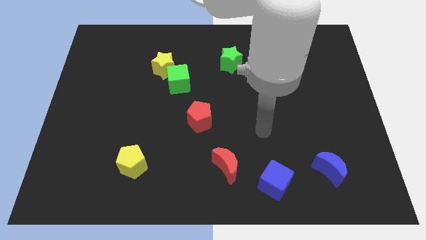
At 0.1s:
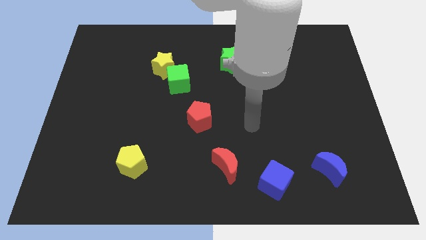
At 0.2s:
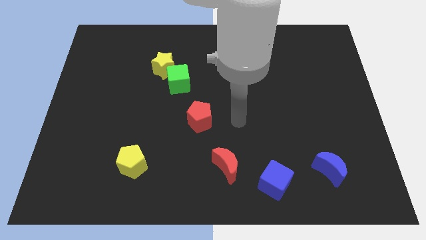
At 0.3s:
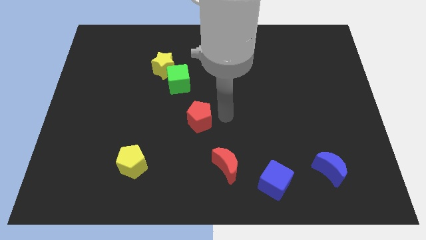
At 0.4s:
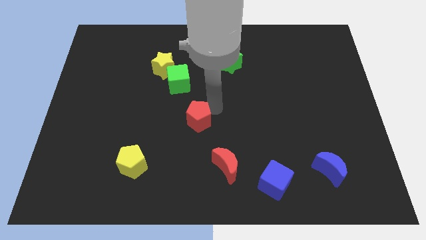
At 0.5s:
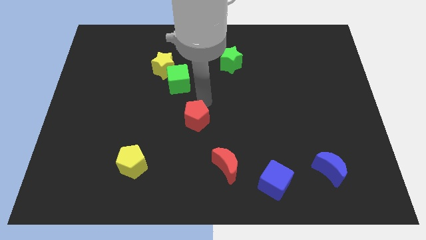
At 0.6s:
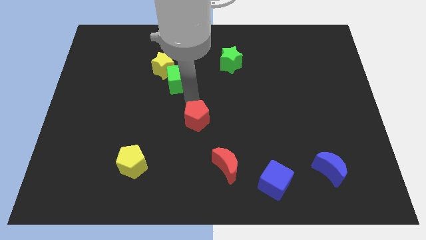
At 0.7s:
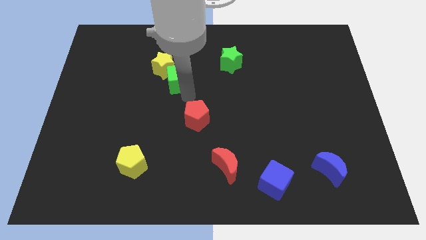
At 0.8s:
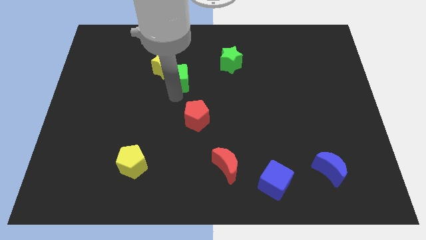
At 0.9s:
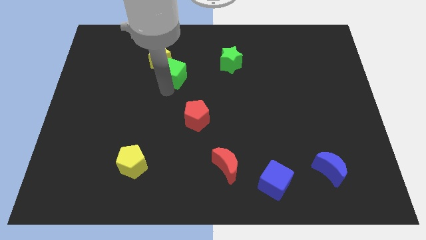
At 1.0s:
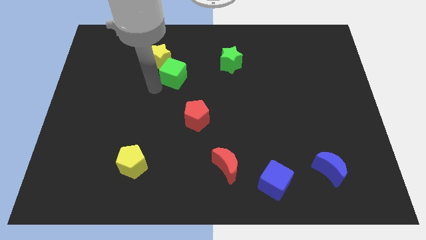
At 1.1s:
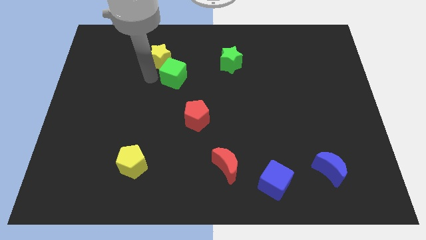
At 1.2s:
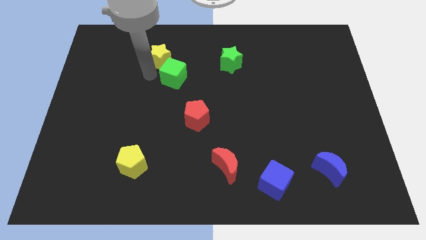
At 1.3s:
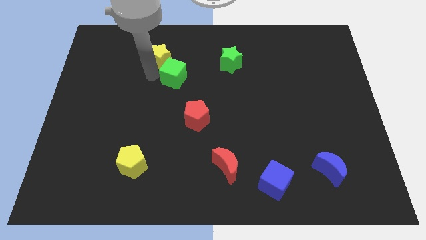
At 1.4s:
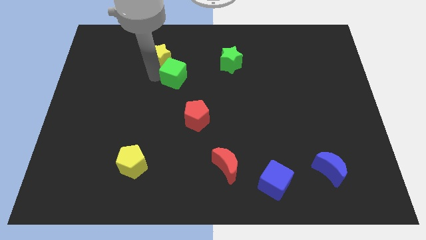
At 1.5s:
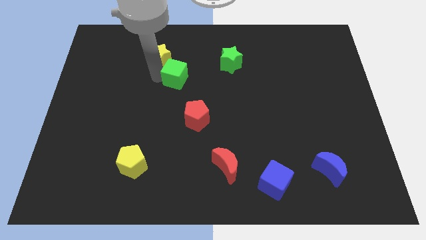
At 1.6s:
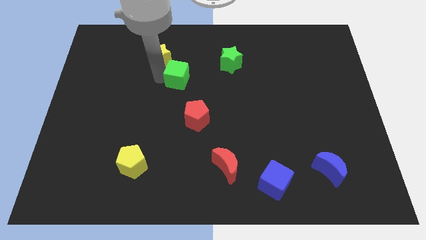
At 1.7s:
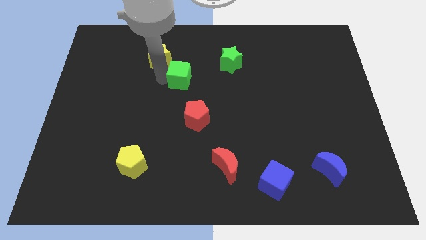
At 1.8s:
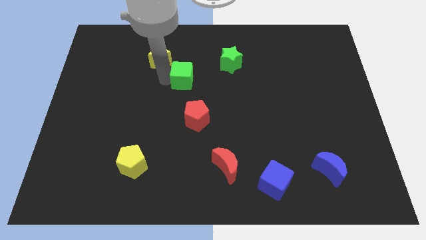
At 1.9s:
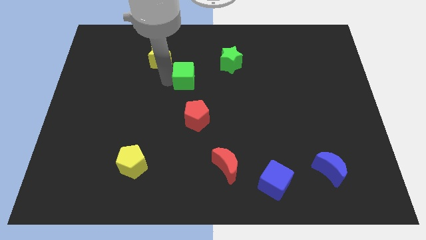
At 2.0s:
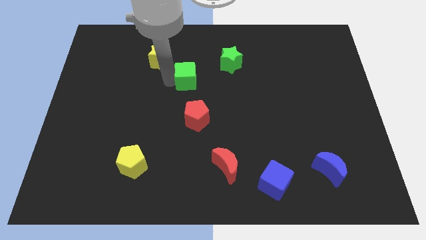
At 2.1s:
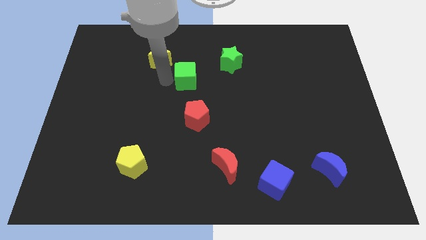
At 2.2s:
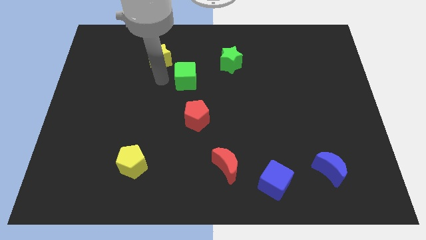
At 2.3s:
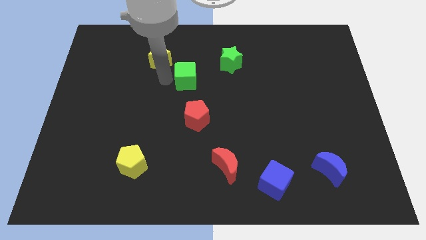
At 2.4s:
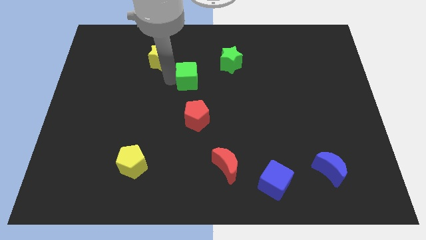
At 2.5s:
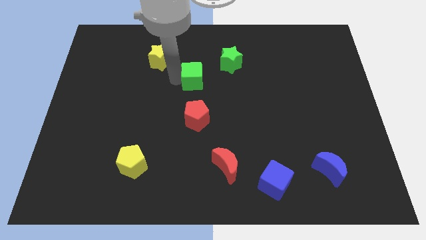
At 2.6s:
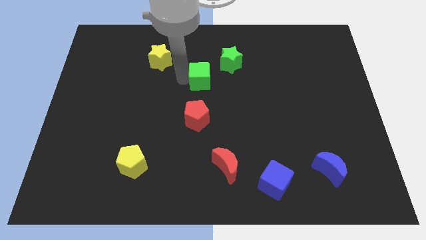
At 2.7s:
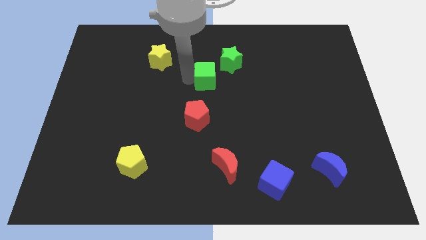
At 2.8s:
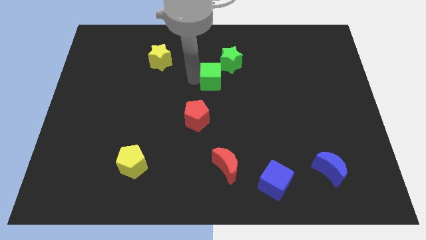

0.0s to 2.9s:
move the green cube a little bit to the right

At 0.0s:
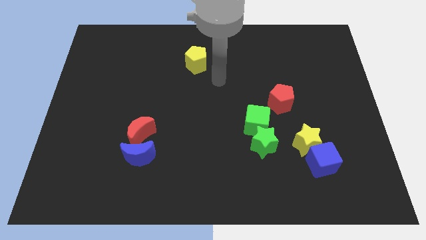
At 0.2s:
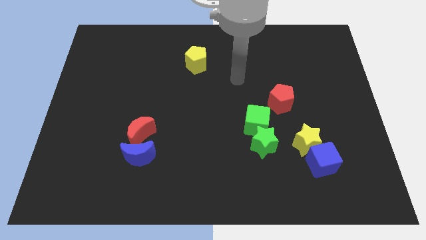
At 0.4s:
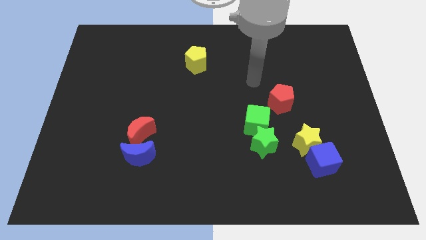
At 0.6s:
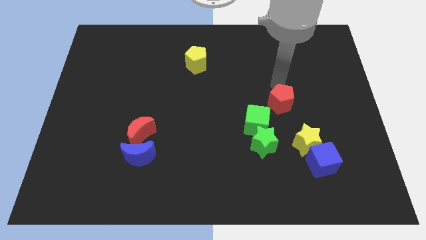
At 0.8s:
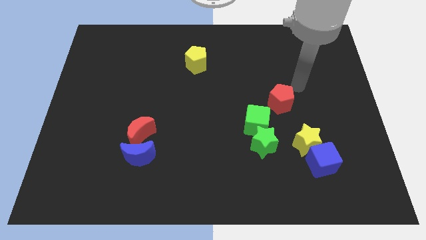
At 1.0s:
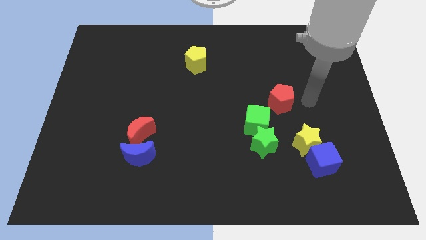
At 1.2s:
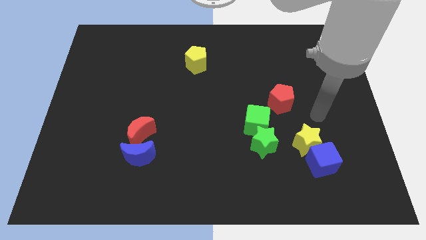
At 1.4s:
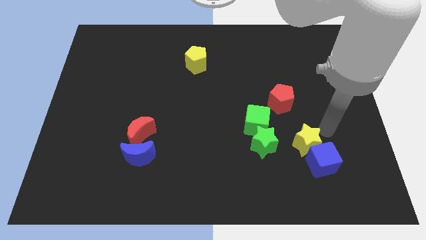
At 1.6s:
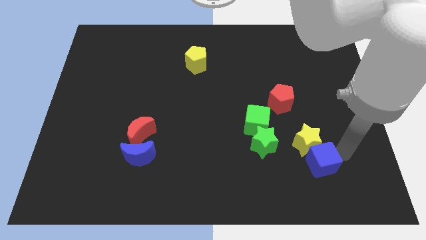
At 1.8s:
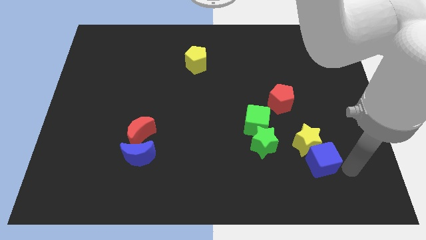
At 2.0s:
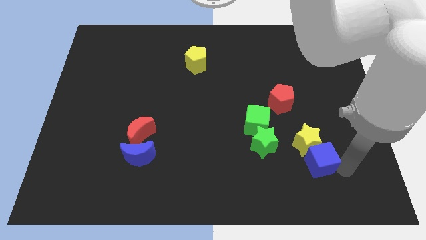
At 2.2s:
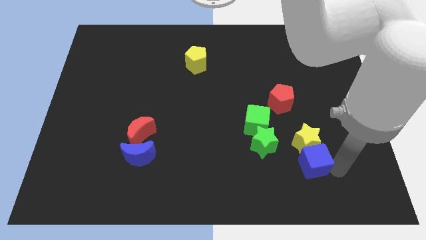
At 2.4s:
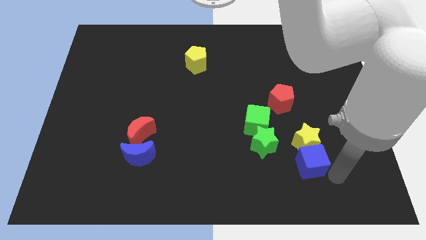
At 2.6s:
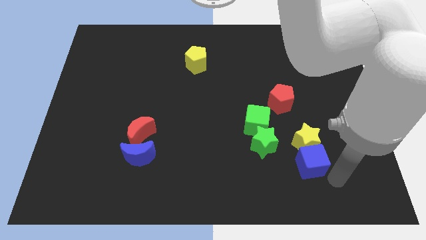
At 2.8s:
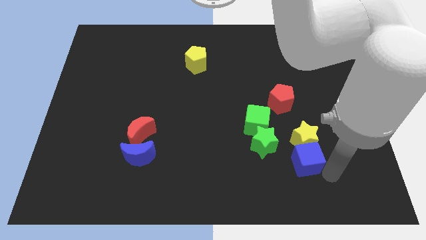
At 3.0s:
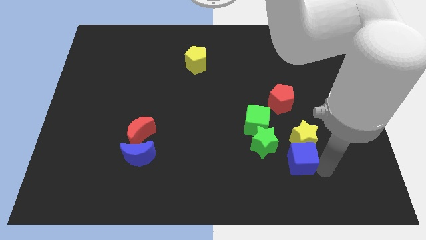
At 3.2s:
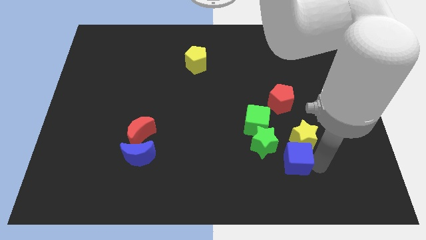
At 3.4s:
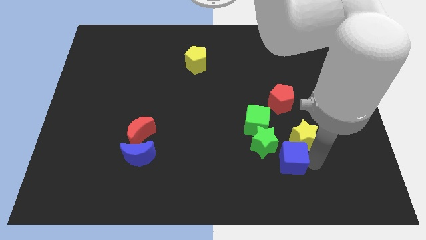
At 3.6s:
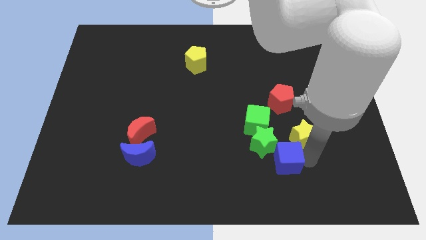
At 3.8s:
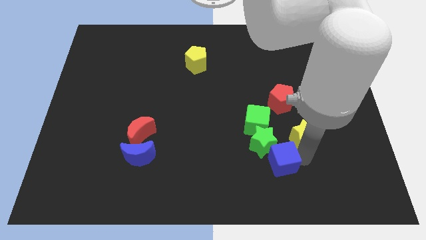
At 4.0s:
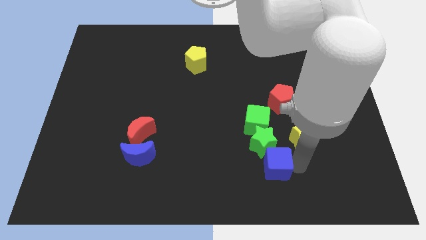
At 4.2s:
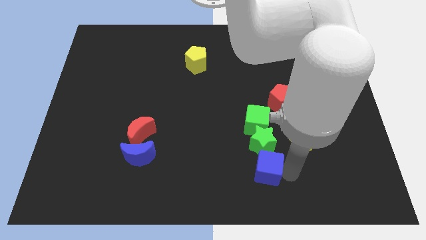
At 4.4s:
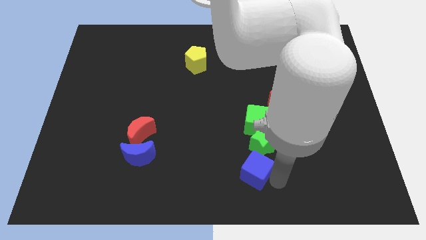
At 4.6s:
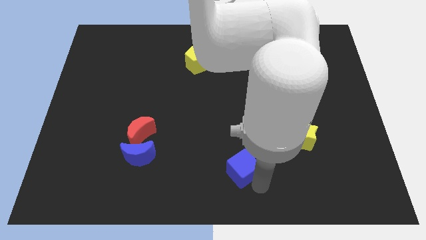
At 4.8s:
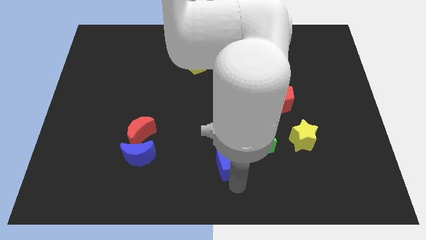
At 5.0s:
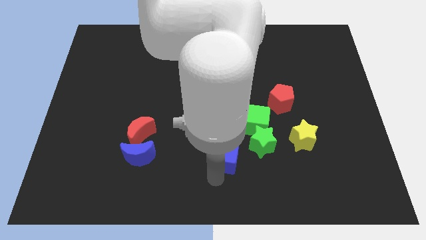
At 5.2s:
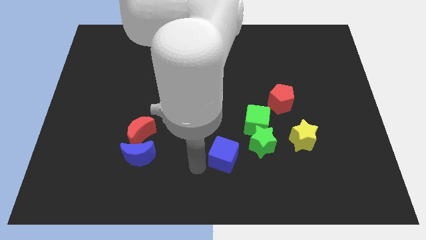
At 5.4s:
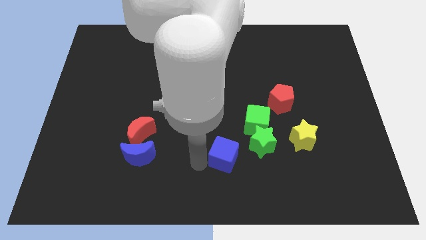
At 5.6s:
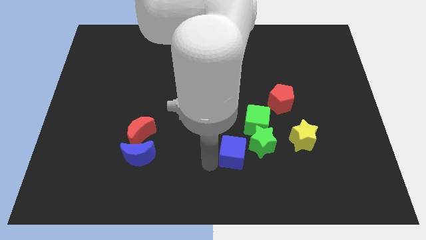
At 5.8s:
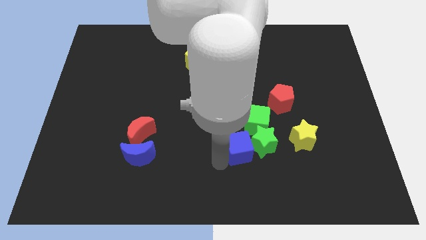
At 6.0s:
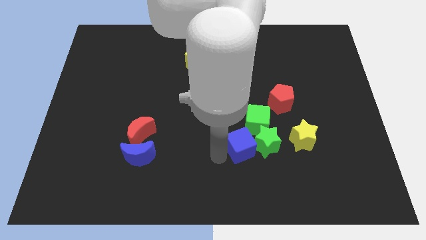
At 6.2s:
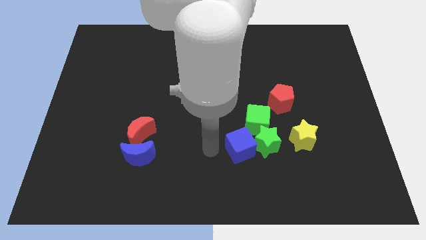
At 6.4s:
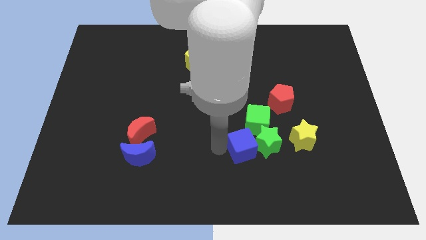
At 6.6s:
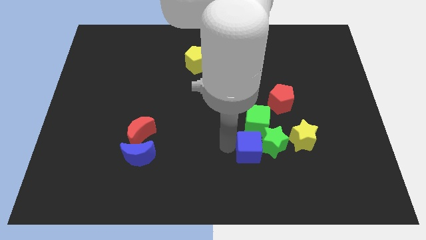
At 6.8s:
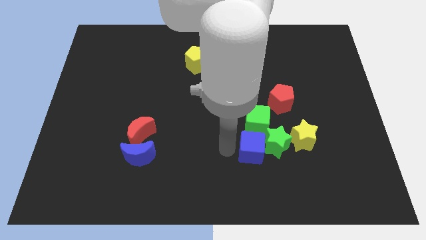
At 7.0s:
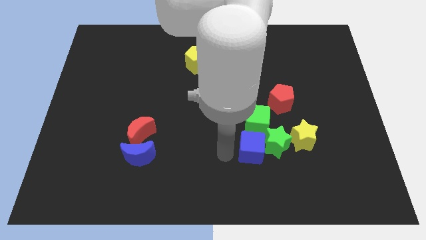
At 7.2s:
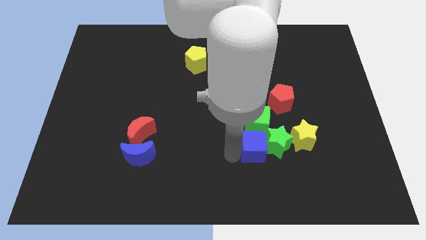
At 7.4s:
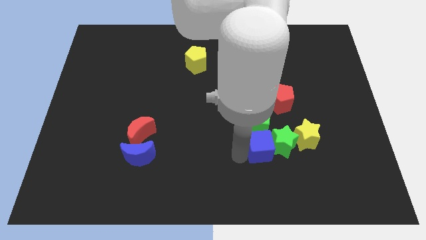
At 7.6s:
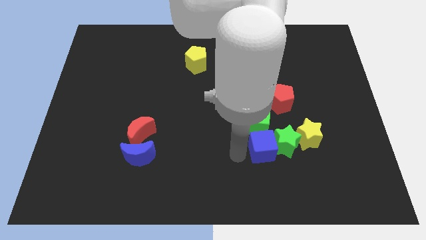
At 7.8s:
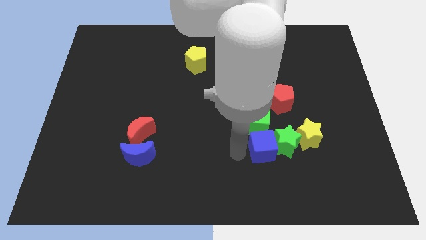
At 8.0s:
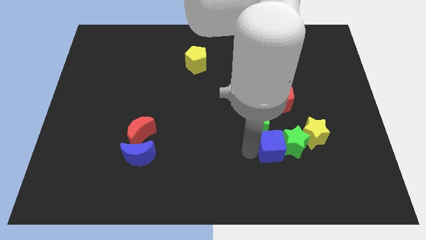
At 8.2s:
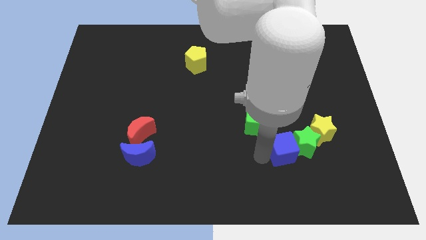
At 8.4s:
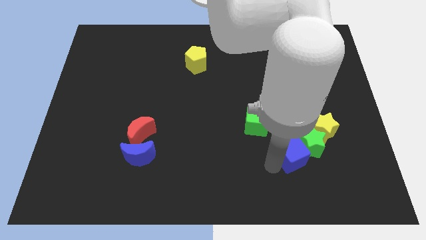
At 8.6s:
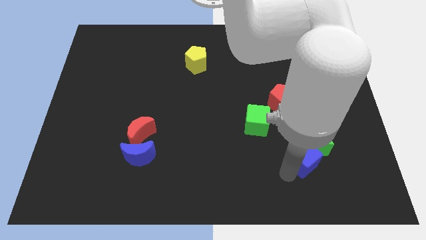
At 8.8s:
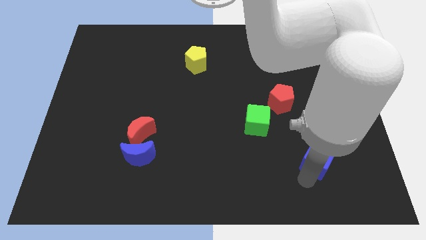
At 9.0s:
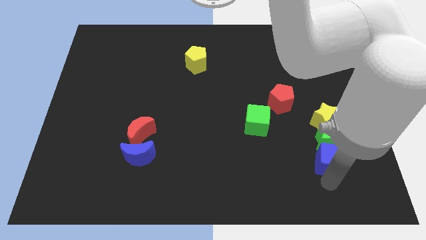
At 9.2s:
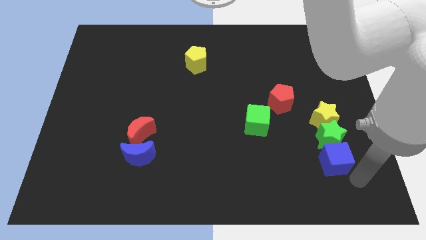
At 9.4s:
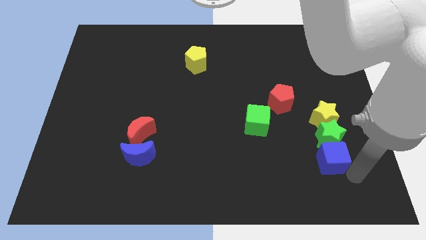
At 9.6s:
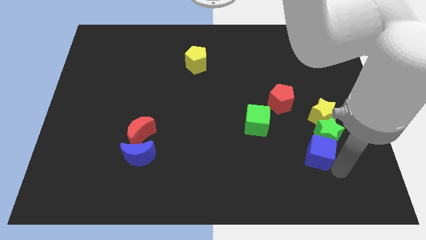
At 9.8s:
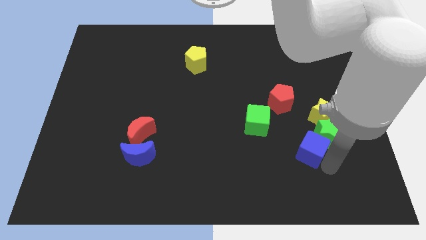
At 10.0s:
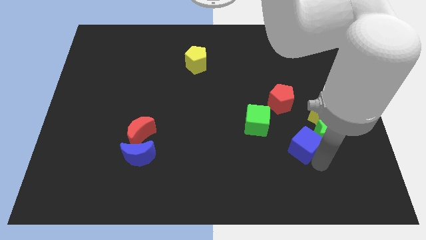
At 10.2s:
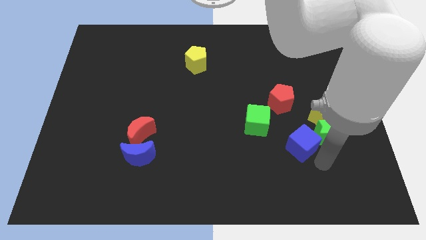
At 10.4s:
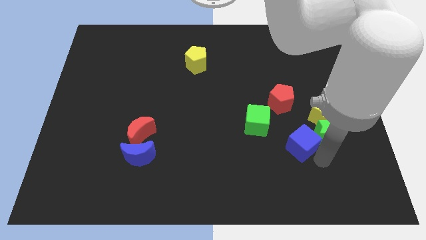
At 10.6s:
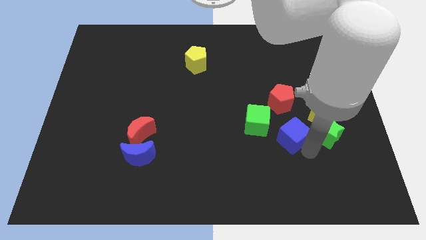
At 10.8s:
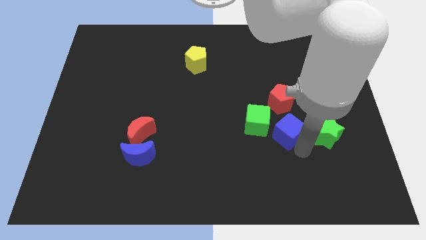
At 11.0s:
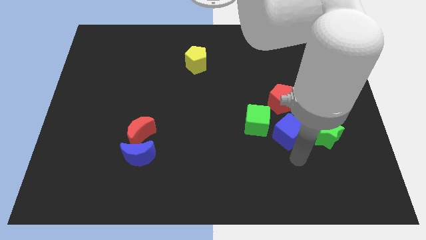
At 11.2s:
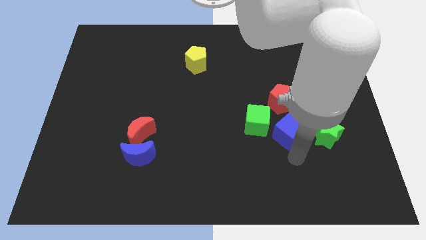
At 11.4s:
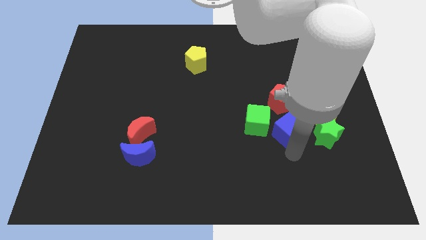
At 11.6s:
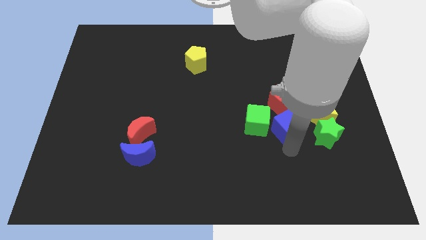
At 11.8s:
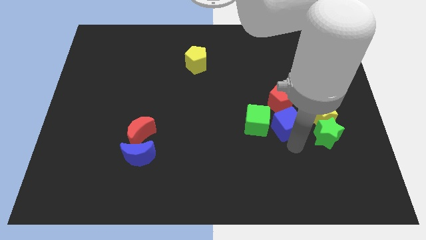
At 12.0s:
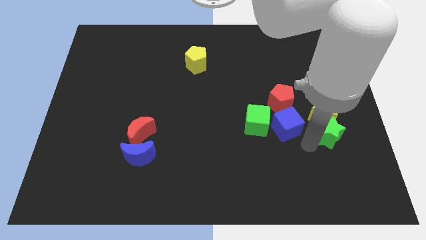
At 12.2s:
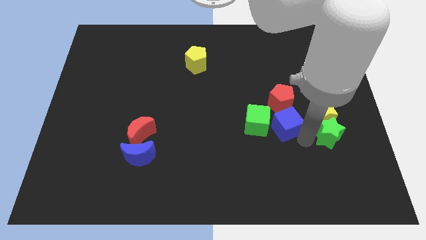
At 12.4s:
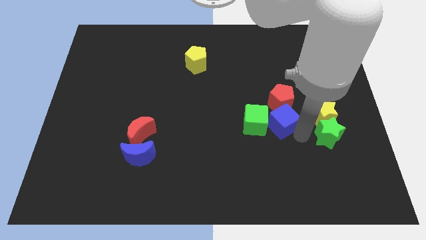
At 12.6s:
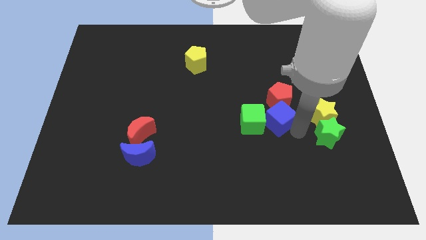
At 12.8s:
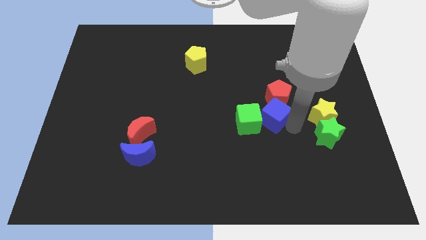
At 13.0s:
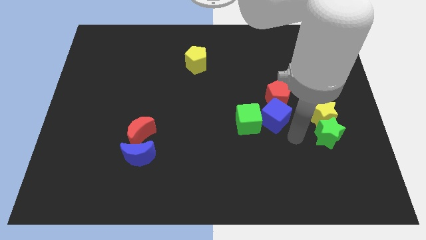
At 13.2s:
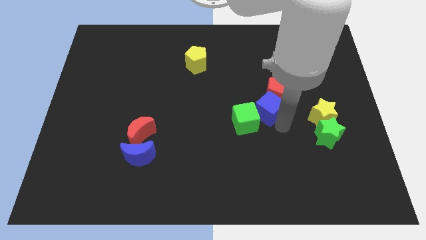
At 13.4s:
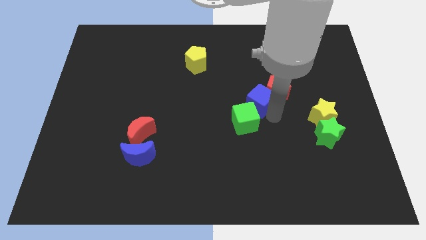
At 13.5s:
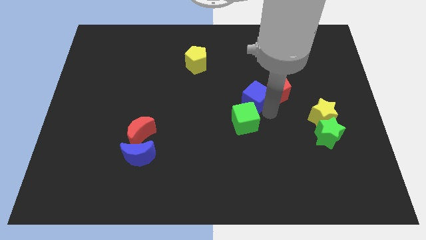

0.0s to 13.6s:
push the blue cube upwards and then left
